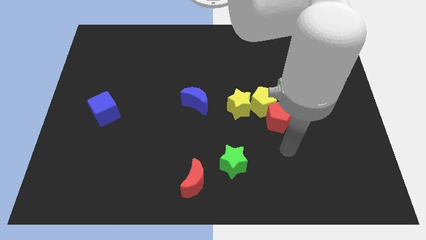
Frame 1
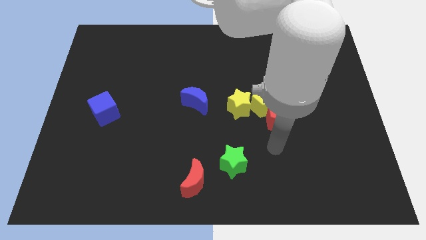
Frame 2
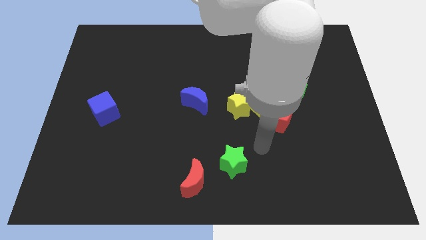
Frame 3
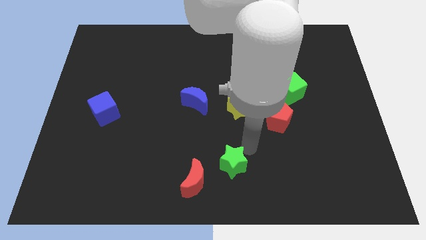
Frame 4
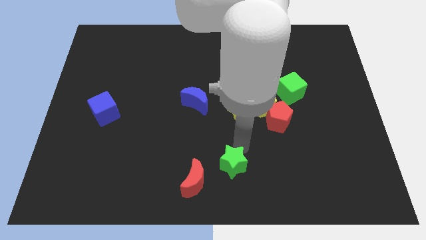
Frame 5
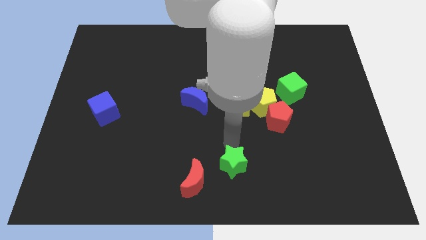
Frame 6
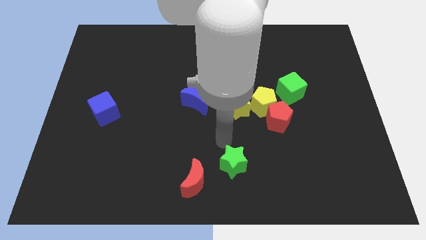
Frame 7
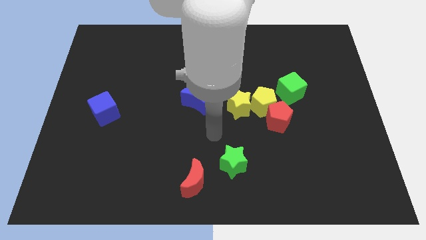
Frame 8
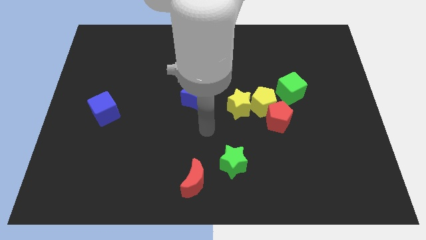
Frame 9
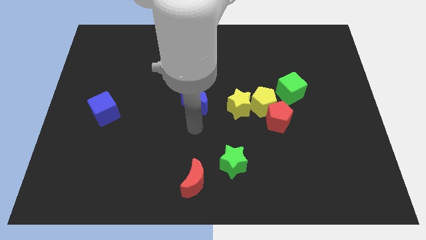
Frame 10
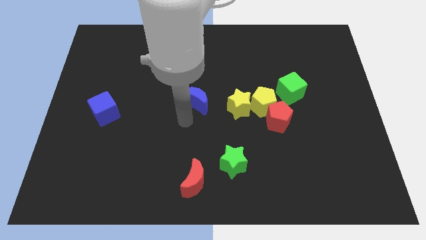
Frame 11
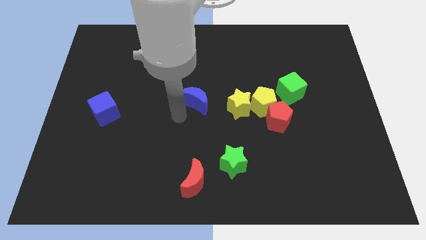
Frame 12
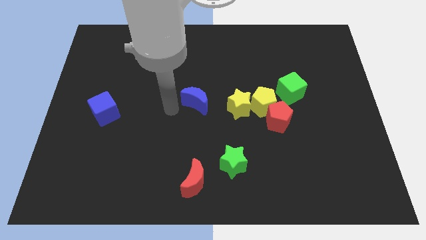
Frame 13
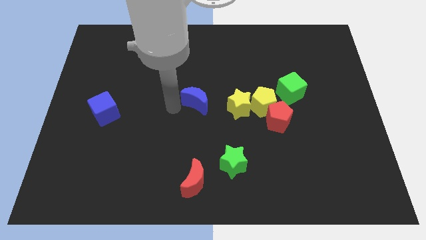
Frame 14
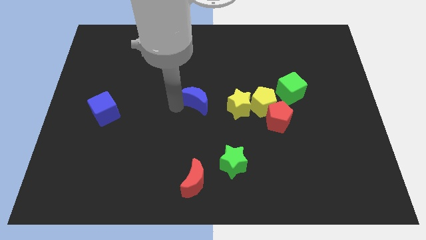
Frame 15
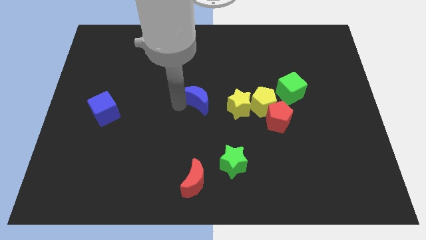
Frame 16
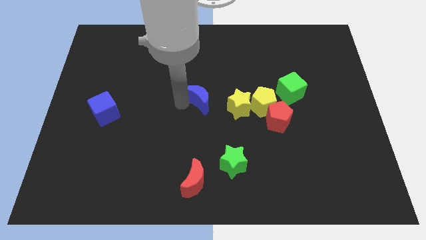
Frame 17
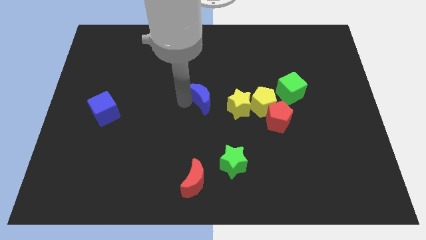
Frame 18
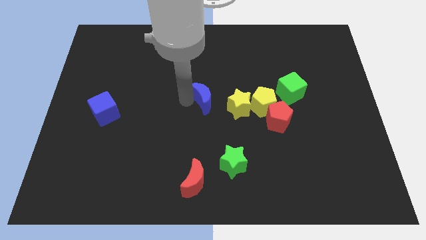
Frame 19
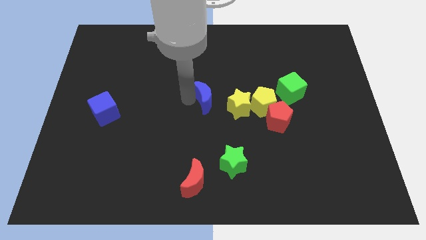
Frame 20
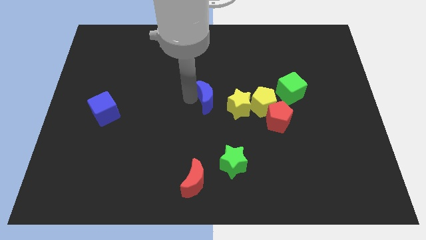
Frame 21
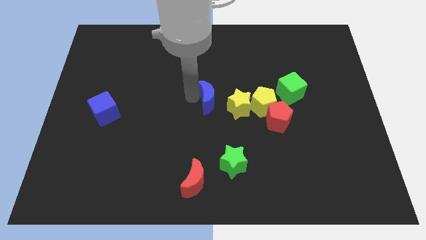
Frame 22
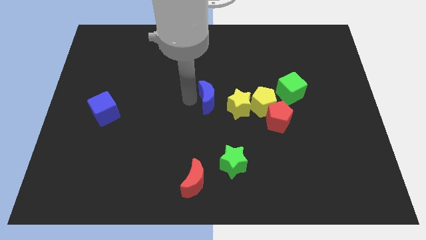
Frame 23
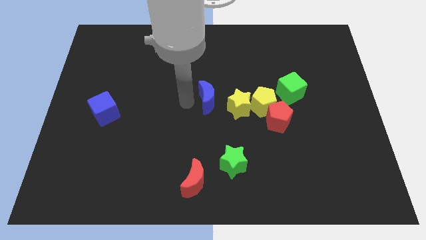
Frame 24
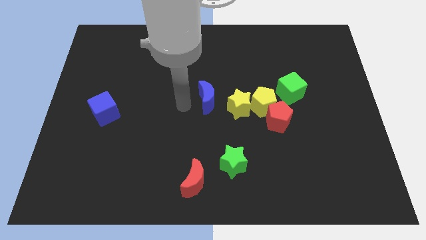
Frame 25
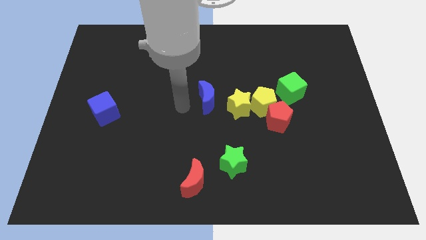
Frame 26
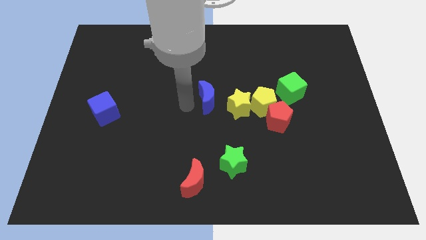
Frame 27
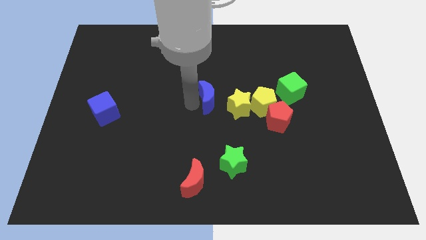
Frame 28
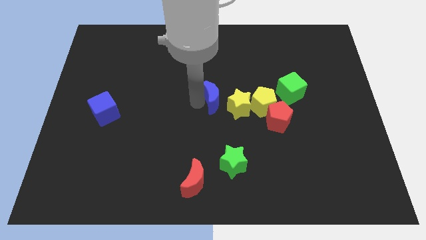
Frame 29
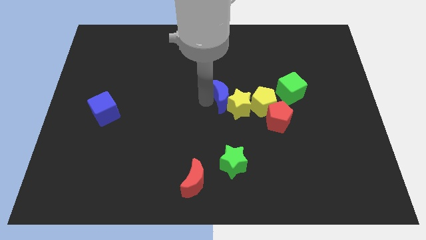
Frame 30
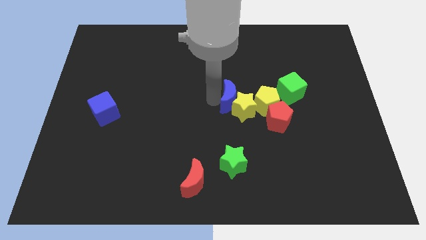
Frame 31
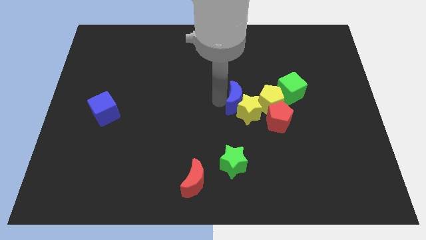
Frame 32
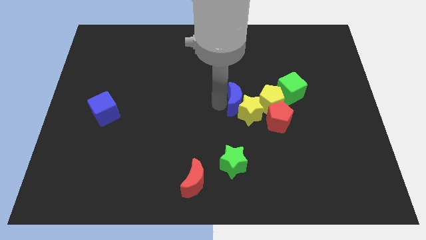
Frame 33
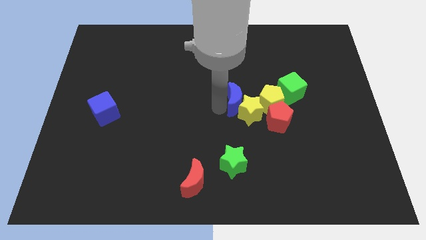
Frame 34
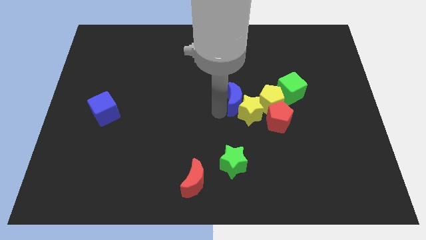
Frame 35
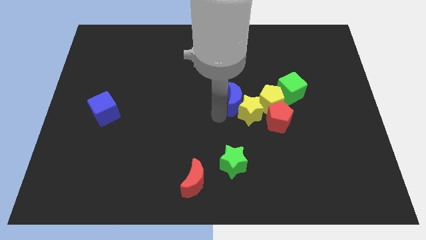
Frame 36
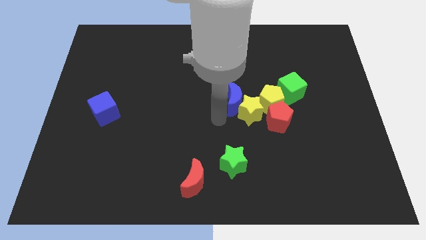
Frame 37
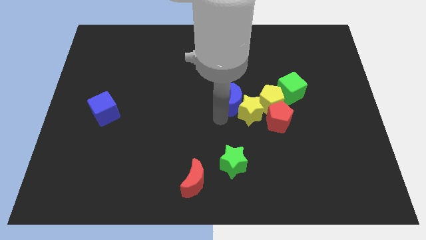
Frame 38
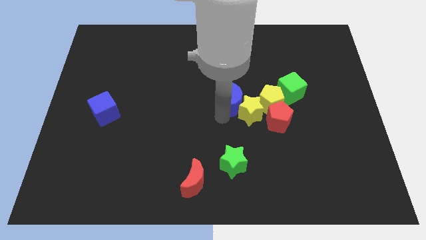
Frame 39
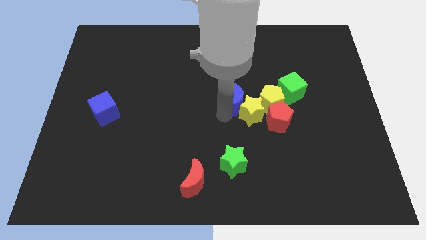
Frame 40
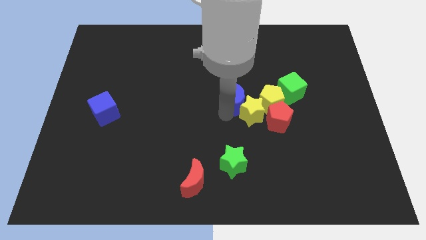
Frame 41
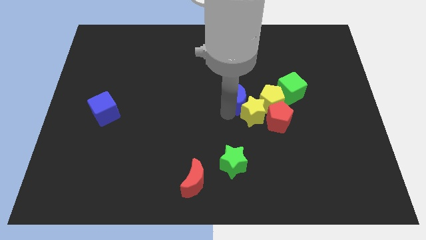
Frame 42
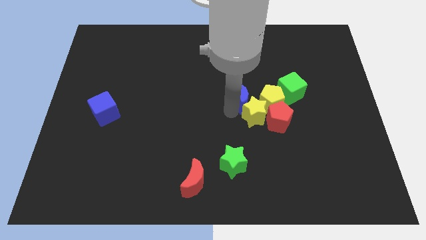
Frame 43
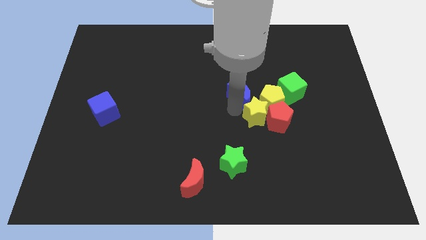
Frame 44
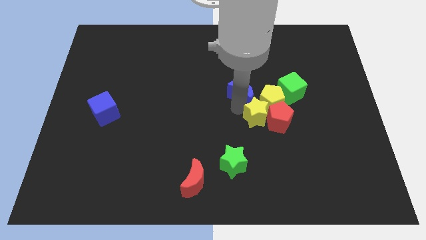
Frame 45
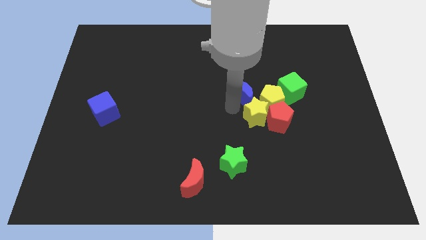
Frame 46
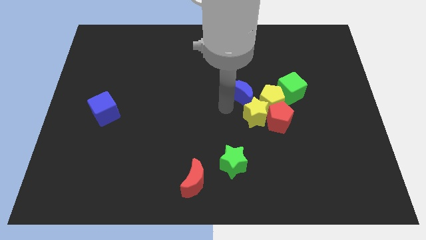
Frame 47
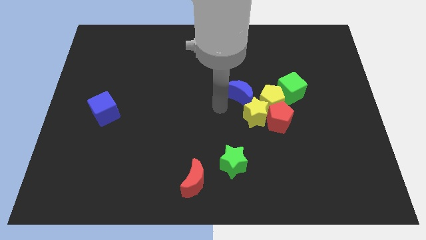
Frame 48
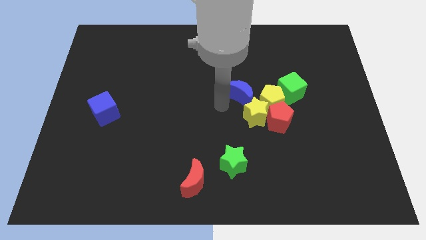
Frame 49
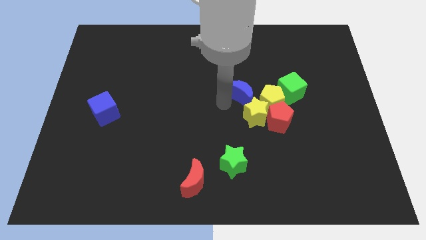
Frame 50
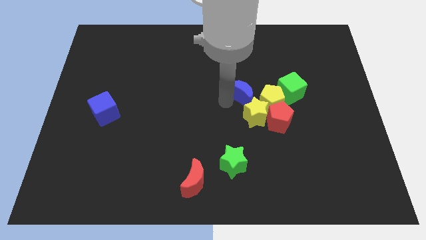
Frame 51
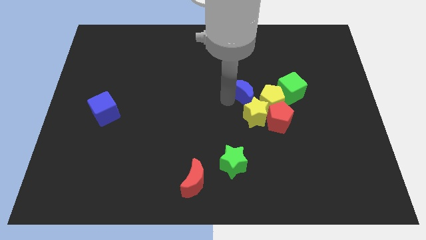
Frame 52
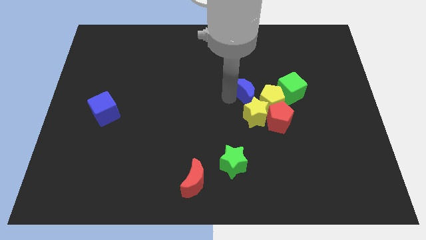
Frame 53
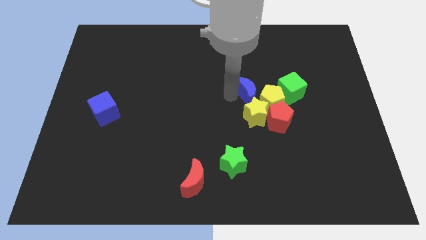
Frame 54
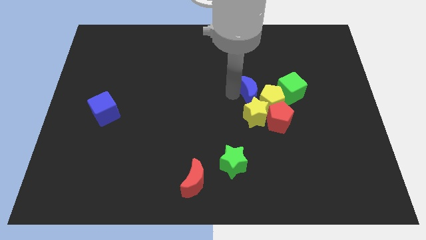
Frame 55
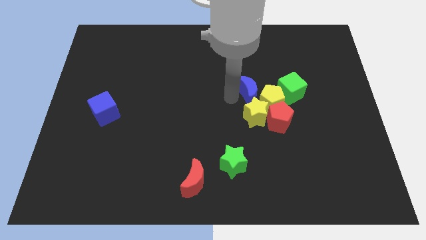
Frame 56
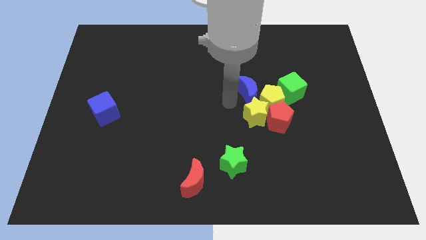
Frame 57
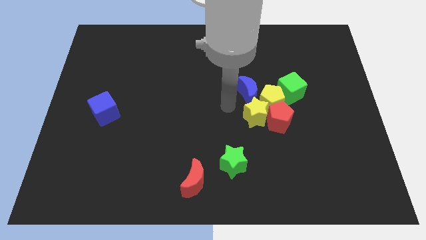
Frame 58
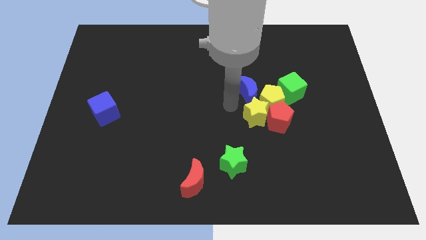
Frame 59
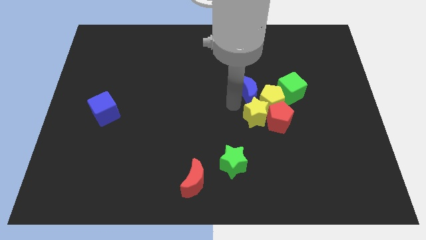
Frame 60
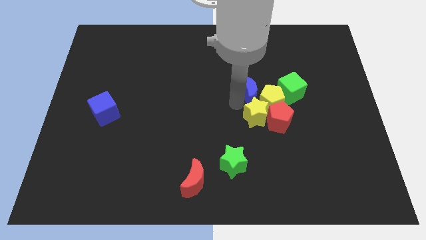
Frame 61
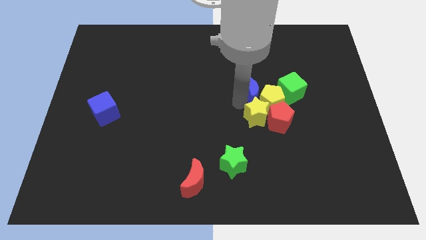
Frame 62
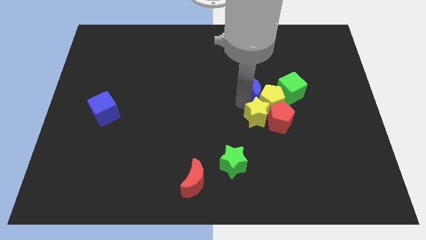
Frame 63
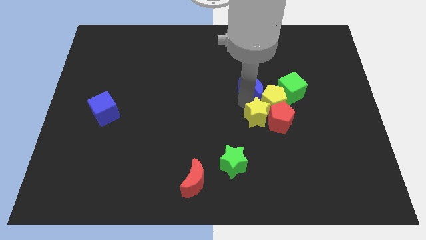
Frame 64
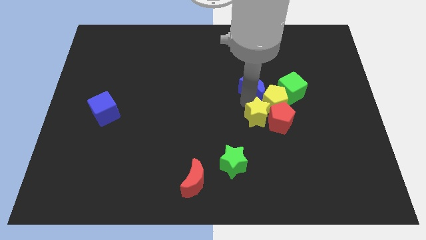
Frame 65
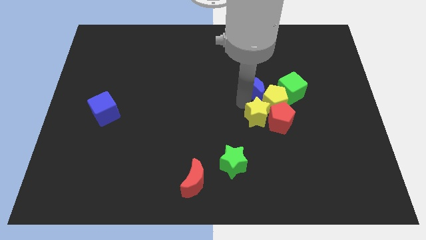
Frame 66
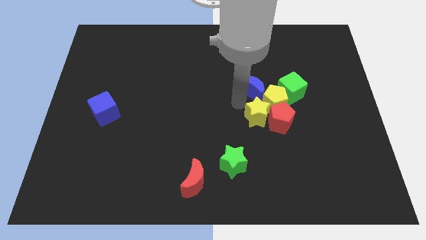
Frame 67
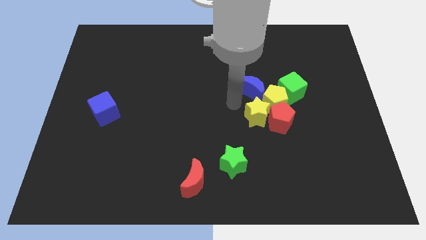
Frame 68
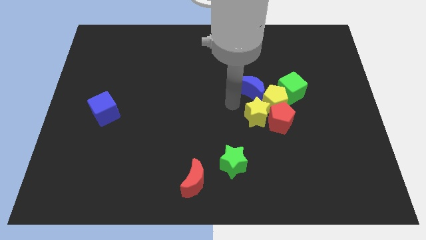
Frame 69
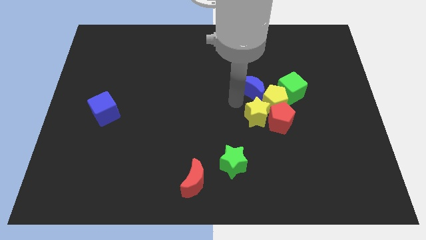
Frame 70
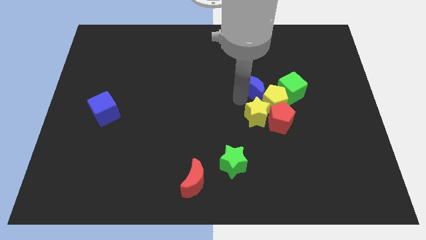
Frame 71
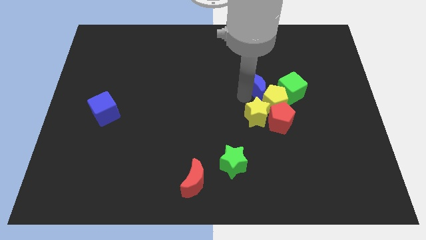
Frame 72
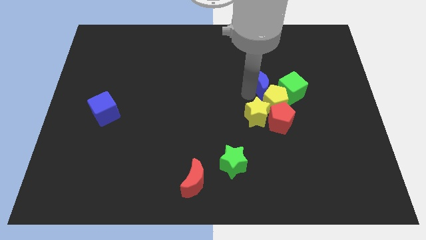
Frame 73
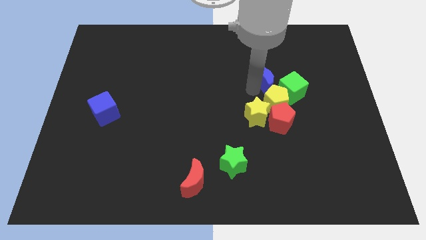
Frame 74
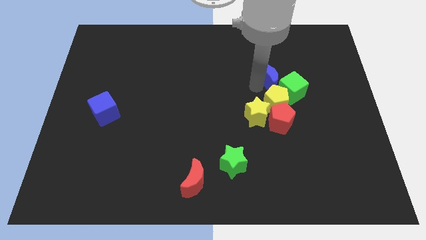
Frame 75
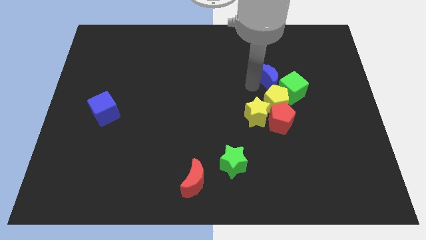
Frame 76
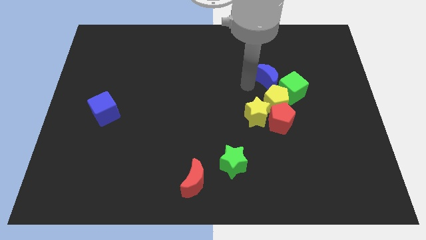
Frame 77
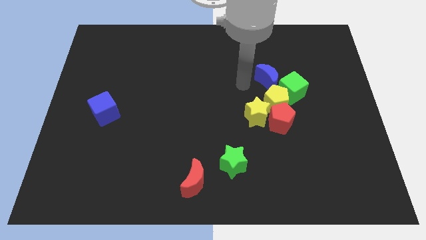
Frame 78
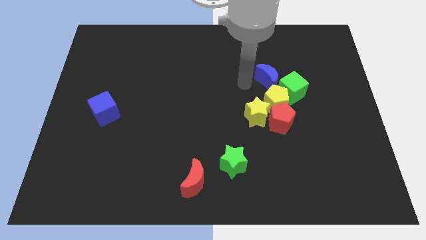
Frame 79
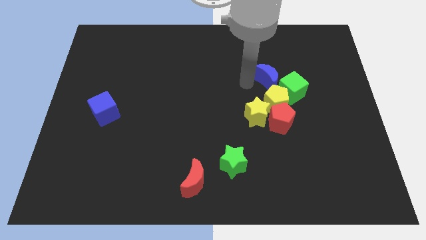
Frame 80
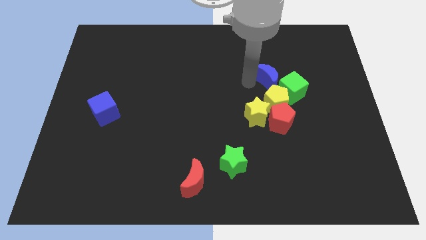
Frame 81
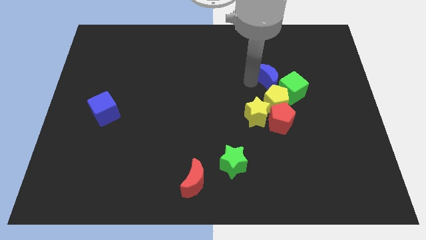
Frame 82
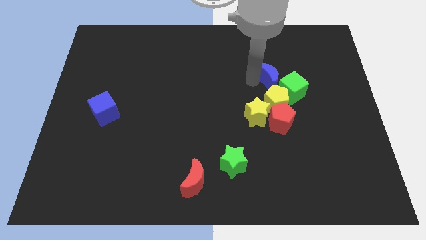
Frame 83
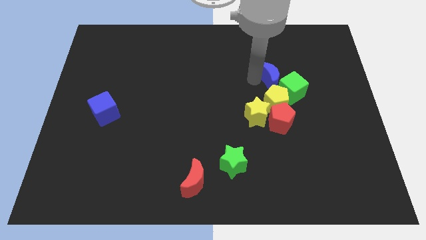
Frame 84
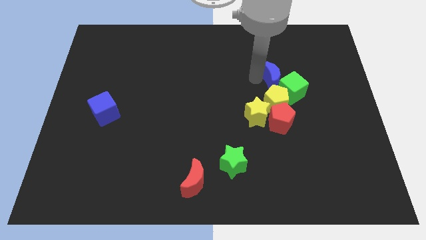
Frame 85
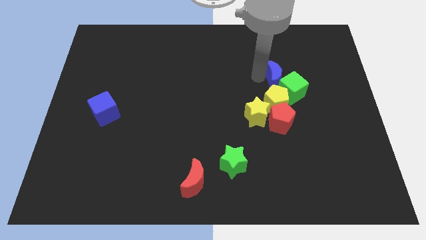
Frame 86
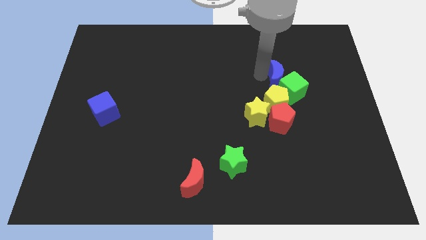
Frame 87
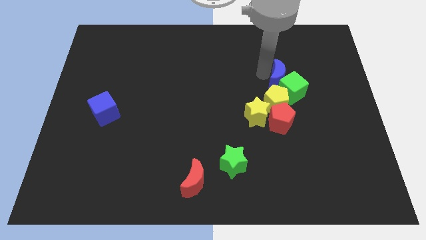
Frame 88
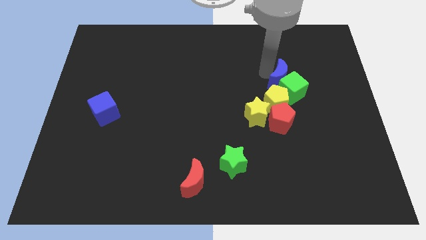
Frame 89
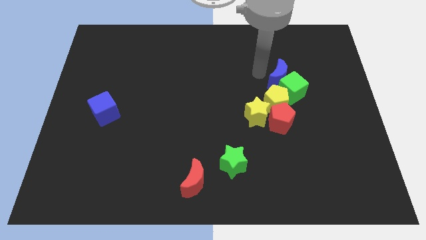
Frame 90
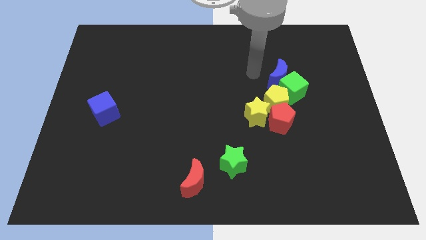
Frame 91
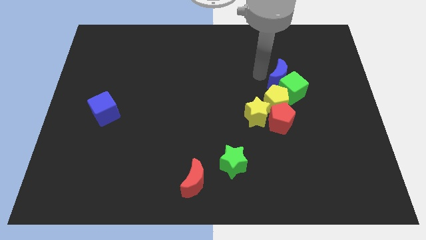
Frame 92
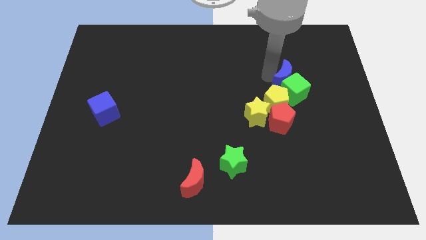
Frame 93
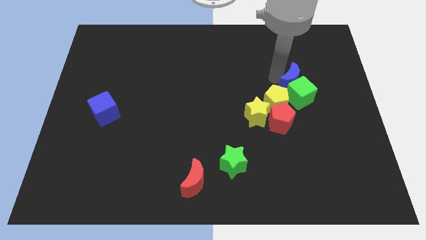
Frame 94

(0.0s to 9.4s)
move the blue moon right
